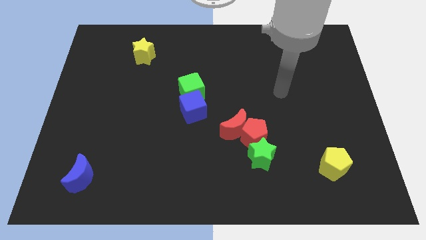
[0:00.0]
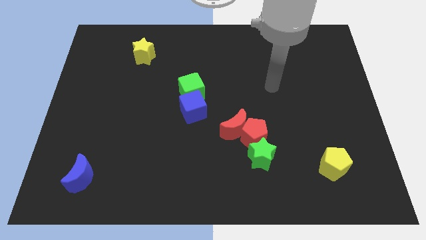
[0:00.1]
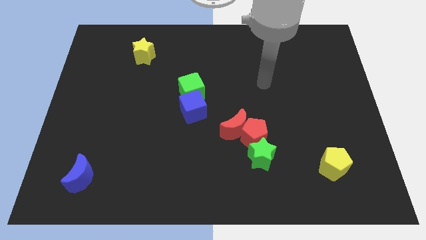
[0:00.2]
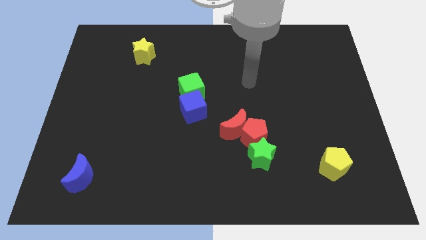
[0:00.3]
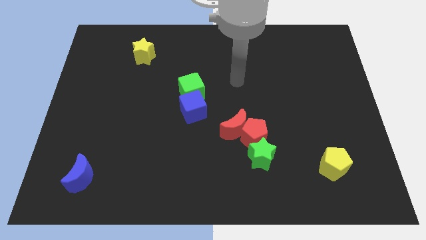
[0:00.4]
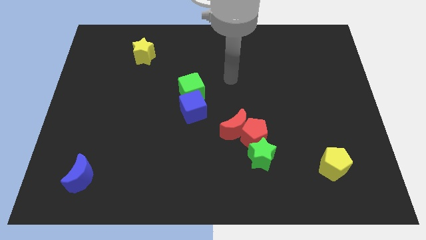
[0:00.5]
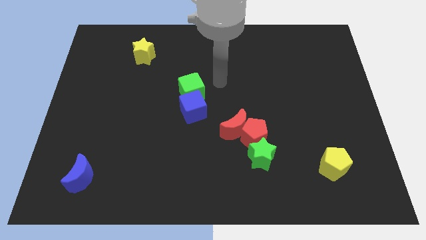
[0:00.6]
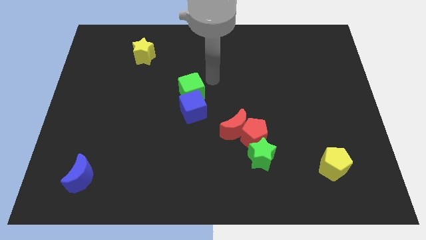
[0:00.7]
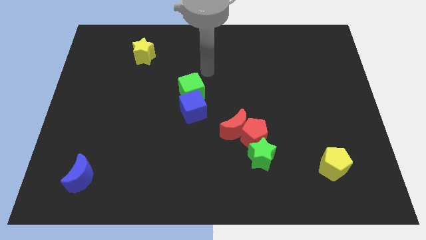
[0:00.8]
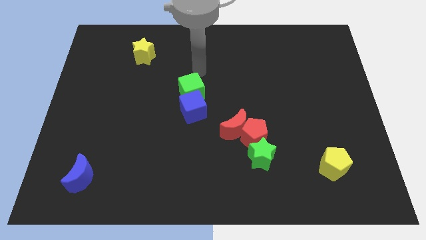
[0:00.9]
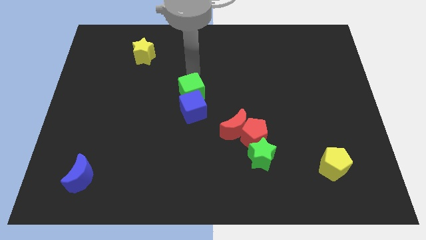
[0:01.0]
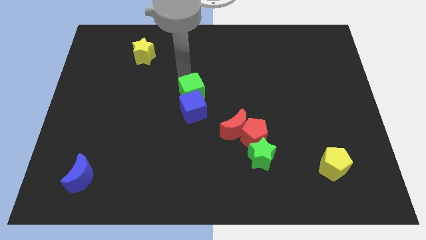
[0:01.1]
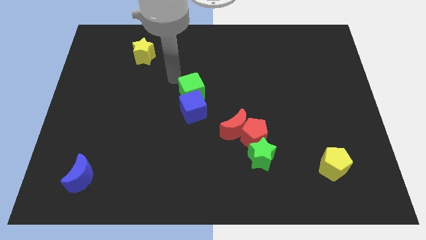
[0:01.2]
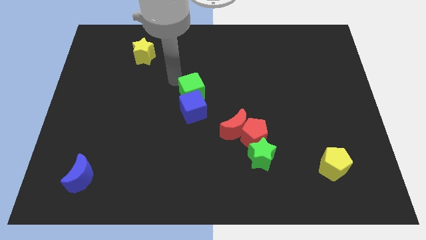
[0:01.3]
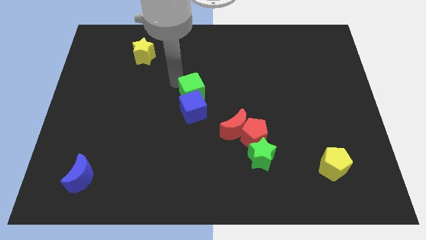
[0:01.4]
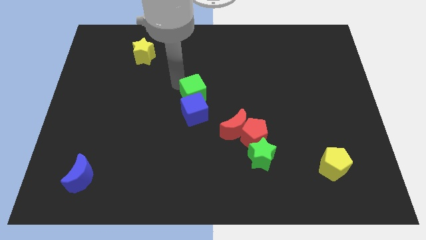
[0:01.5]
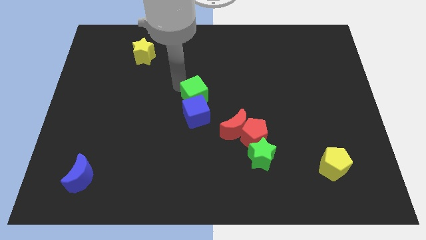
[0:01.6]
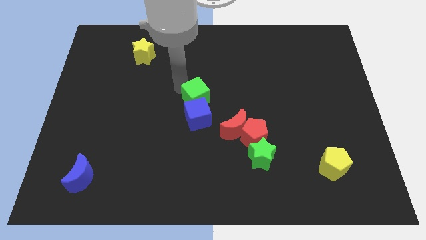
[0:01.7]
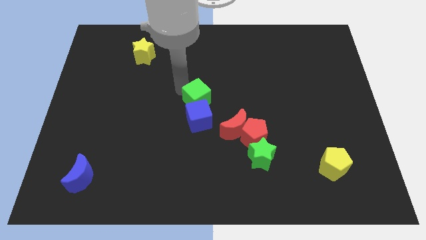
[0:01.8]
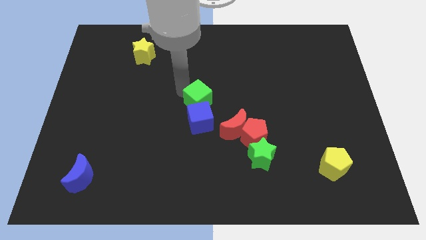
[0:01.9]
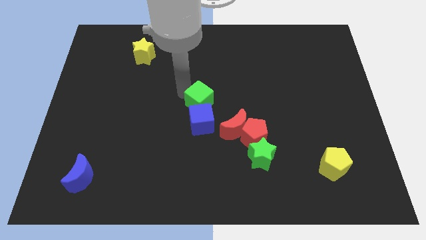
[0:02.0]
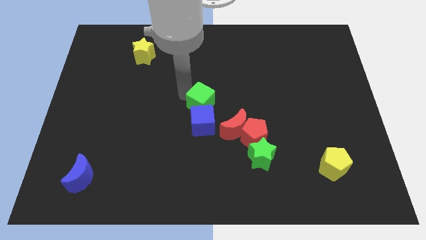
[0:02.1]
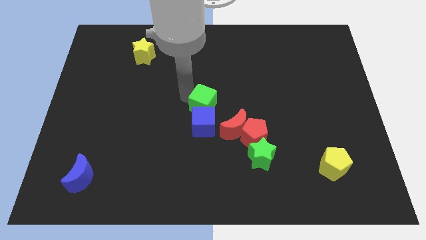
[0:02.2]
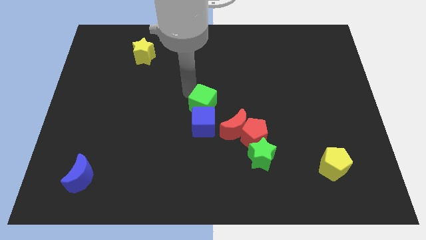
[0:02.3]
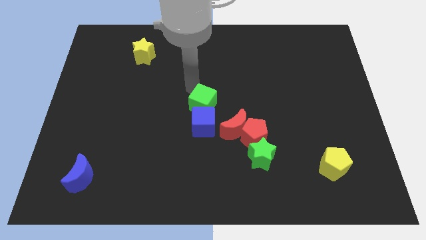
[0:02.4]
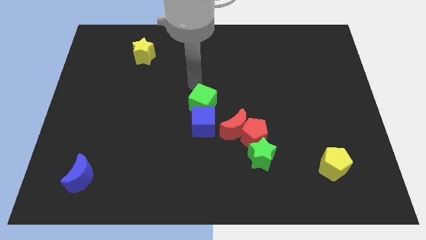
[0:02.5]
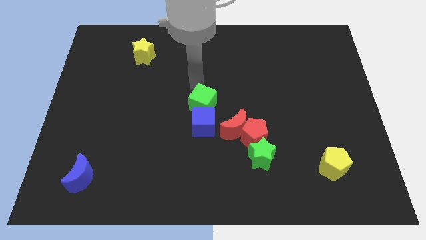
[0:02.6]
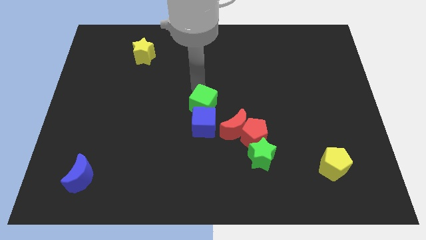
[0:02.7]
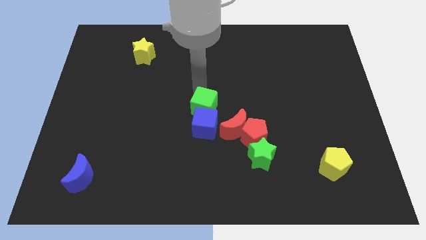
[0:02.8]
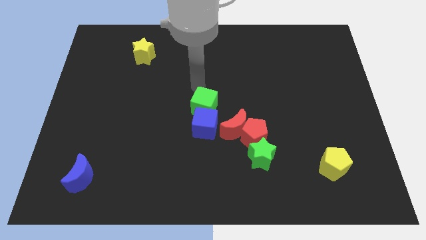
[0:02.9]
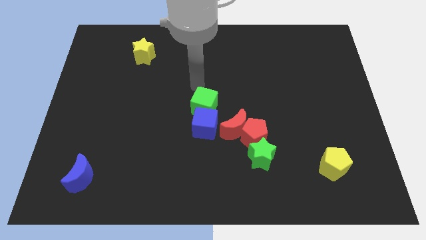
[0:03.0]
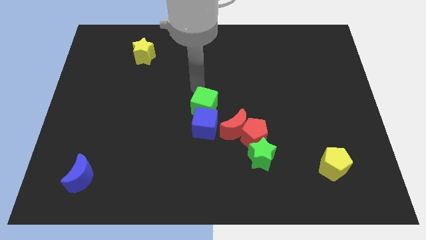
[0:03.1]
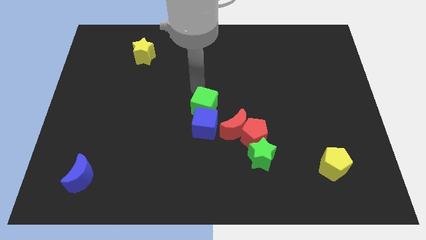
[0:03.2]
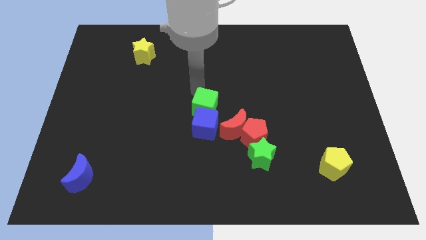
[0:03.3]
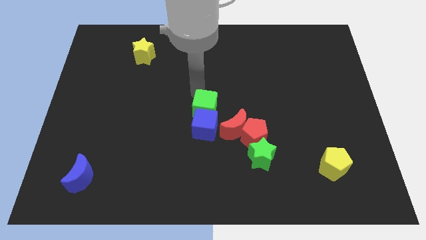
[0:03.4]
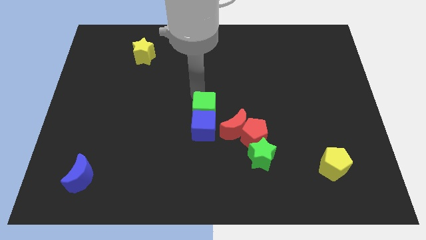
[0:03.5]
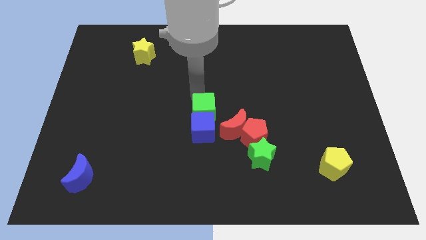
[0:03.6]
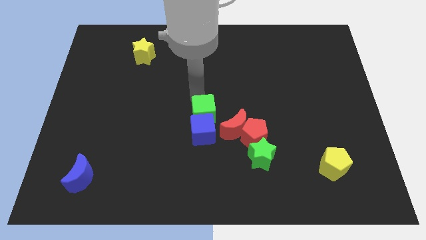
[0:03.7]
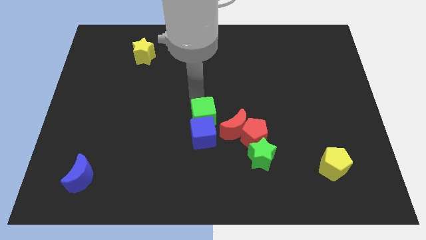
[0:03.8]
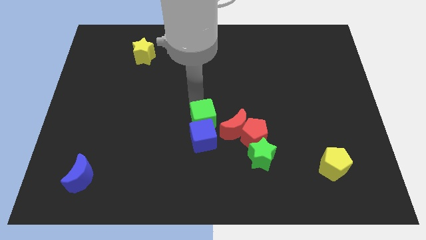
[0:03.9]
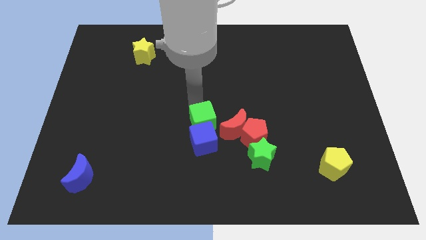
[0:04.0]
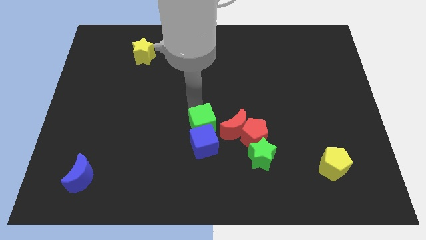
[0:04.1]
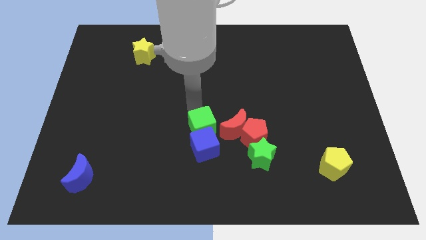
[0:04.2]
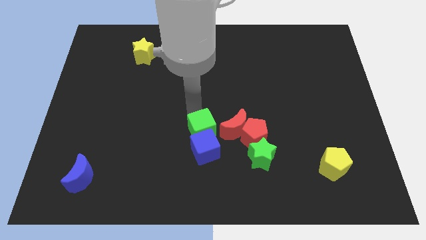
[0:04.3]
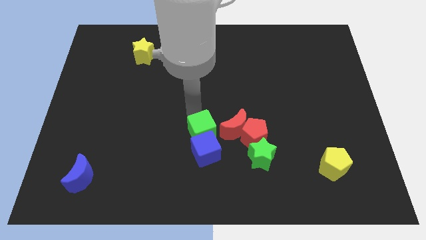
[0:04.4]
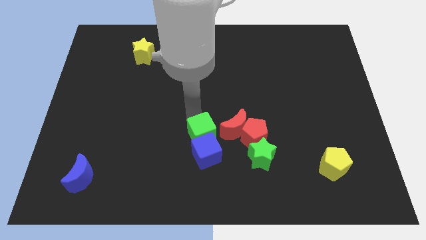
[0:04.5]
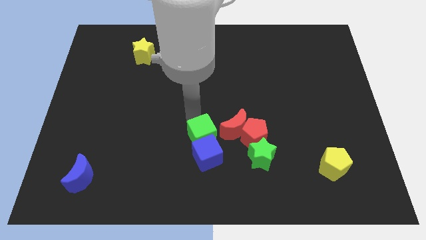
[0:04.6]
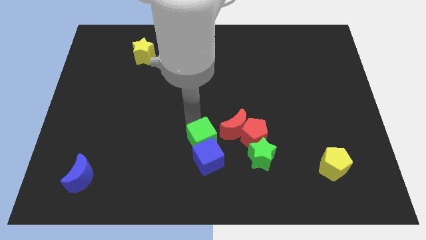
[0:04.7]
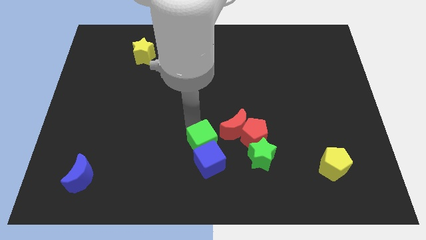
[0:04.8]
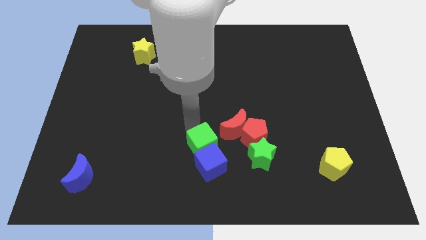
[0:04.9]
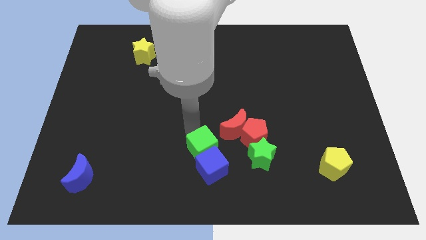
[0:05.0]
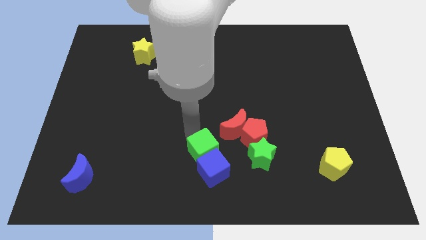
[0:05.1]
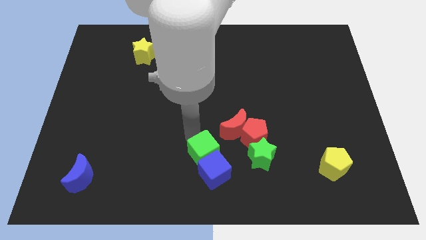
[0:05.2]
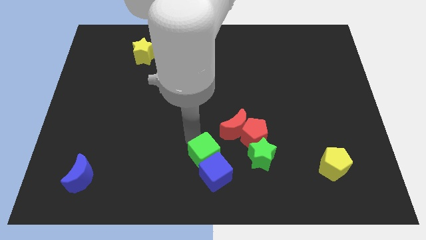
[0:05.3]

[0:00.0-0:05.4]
slide the green cube to the bottom

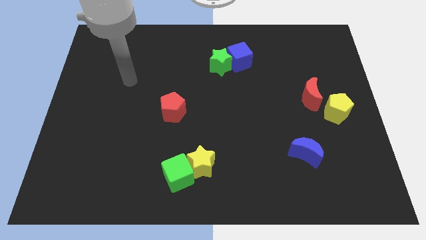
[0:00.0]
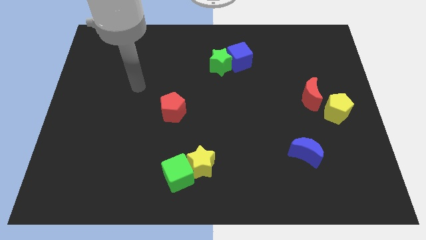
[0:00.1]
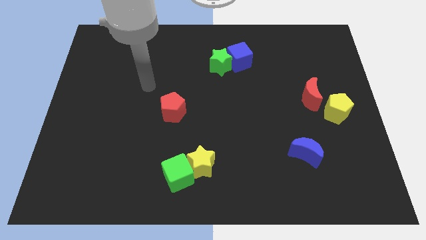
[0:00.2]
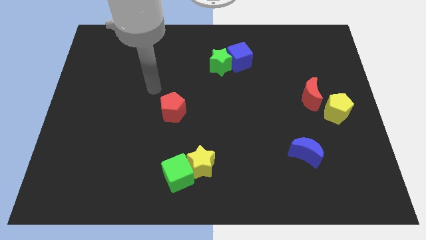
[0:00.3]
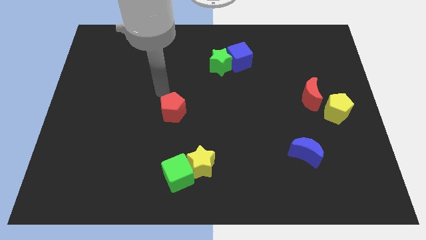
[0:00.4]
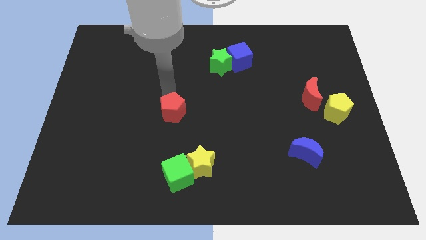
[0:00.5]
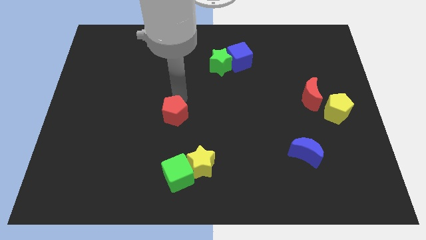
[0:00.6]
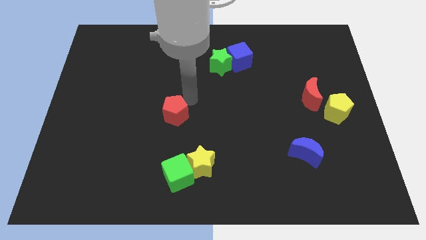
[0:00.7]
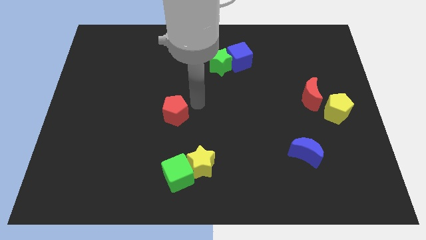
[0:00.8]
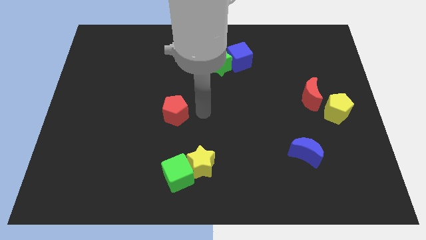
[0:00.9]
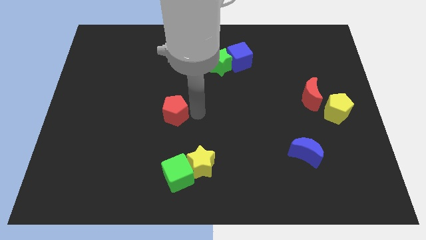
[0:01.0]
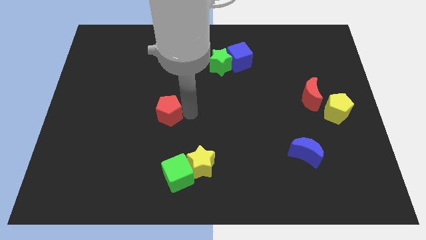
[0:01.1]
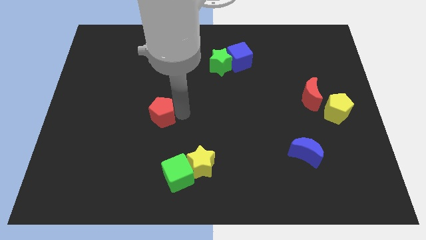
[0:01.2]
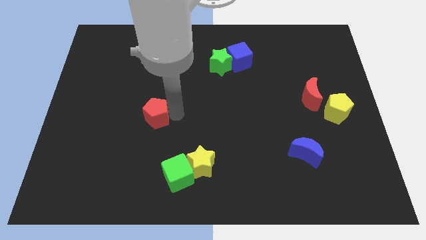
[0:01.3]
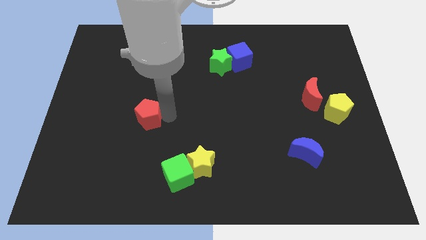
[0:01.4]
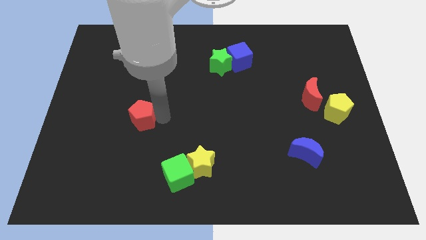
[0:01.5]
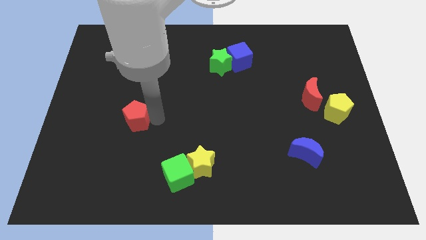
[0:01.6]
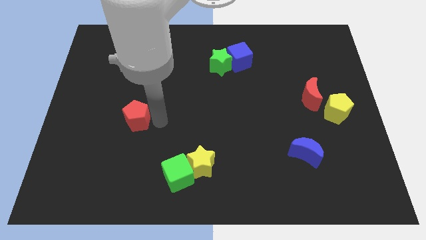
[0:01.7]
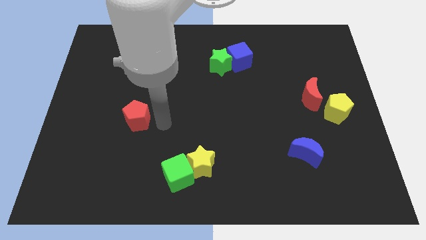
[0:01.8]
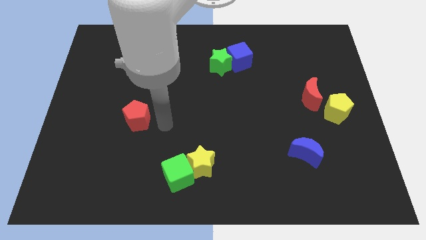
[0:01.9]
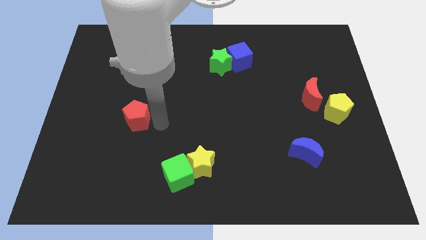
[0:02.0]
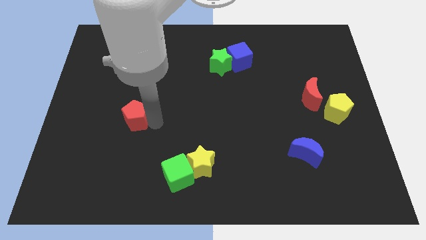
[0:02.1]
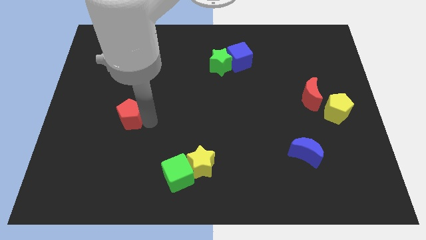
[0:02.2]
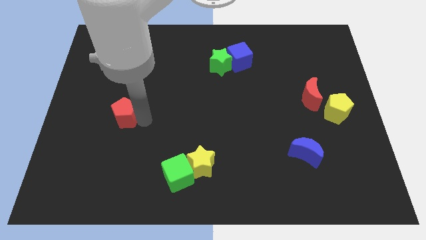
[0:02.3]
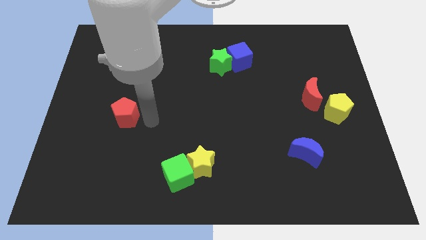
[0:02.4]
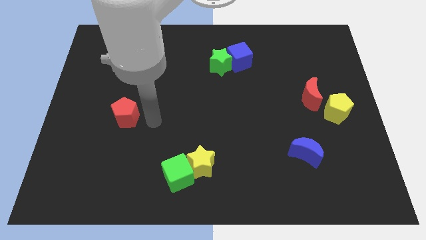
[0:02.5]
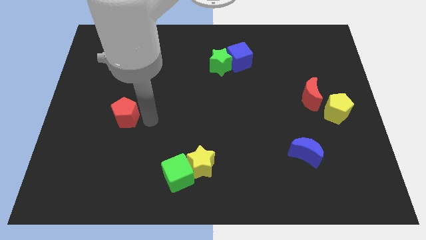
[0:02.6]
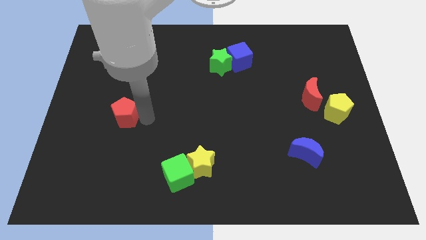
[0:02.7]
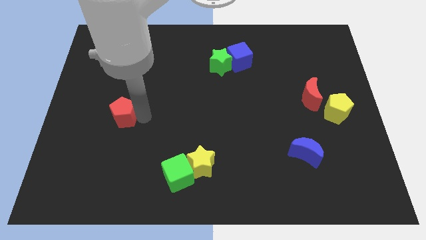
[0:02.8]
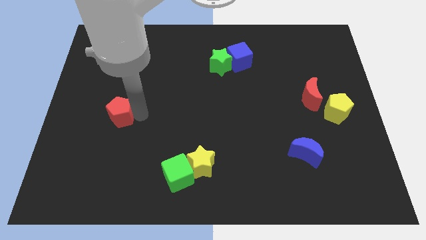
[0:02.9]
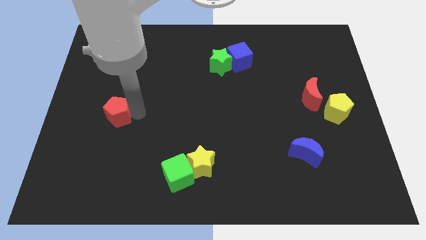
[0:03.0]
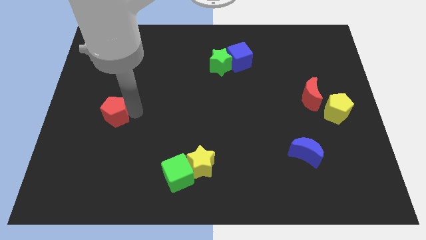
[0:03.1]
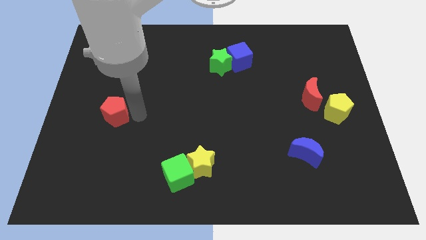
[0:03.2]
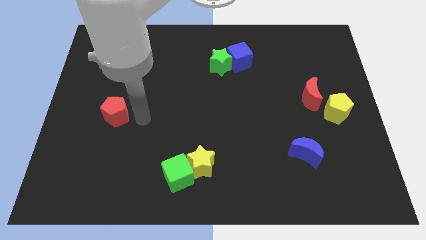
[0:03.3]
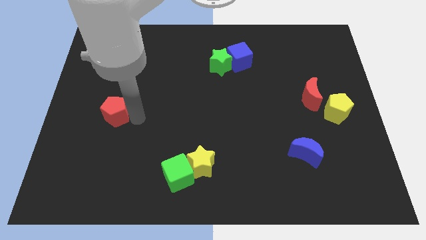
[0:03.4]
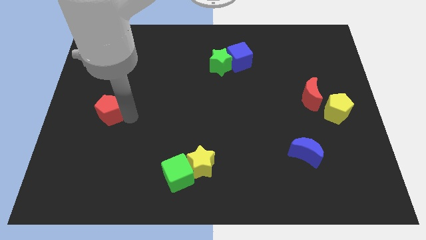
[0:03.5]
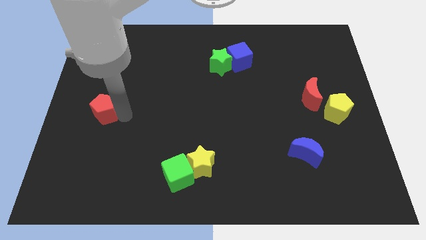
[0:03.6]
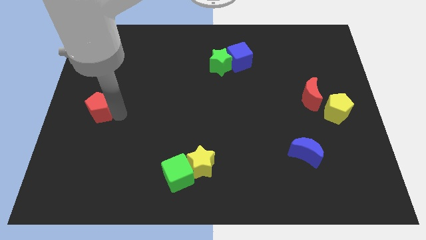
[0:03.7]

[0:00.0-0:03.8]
slide the red pentagon to the left side
